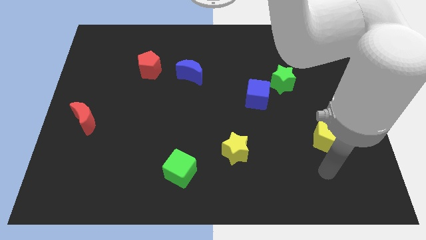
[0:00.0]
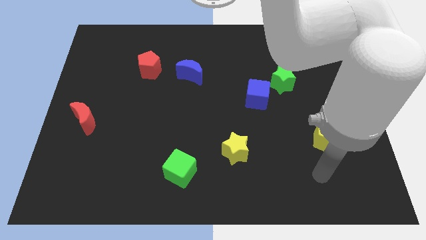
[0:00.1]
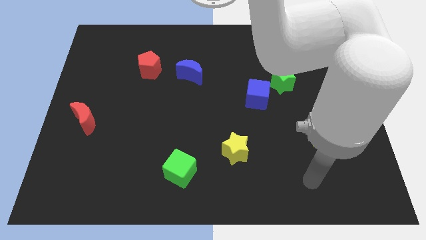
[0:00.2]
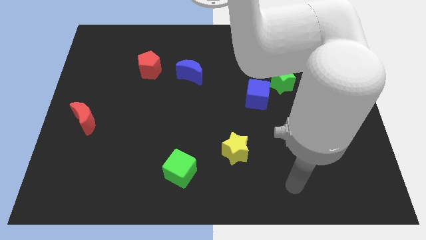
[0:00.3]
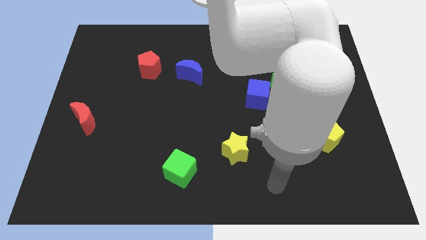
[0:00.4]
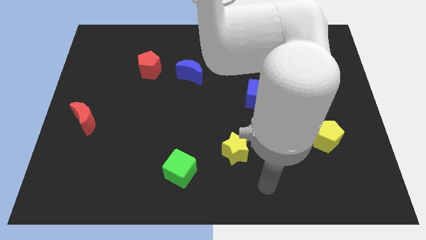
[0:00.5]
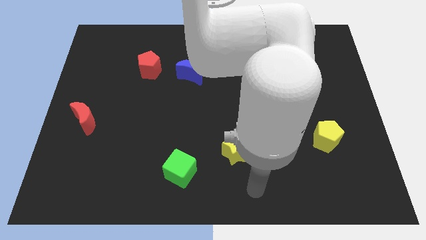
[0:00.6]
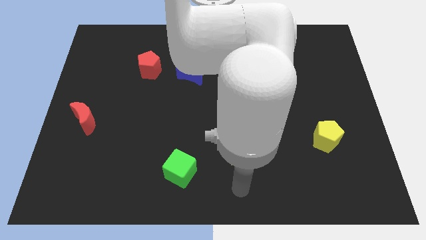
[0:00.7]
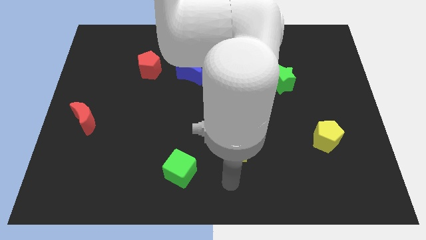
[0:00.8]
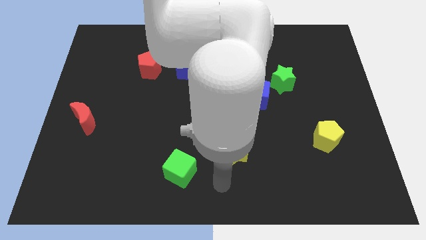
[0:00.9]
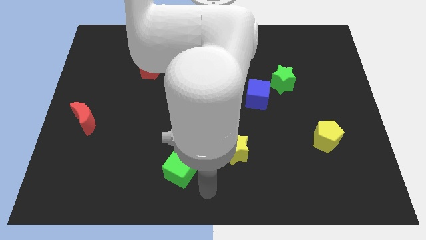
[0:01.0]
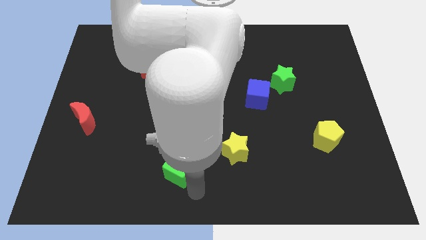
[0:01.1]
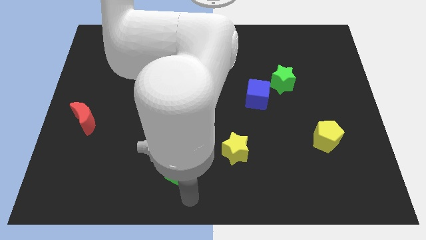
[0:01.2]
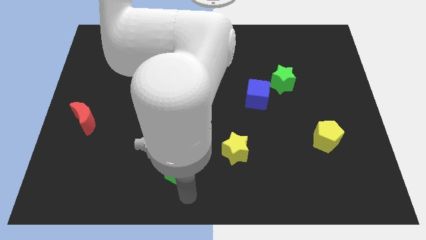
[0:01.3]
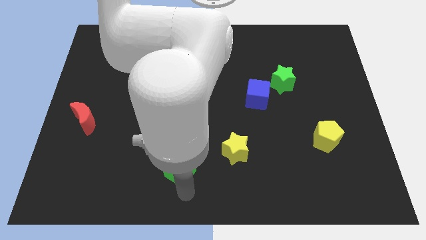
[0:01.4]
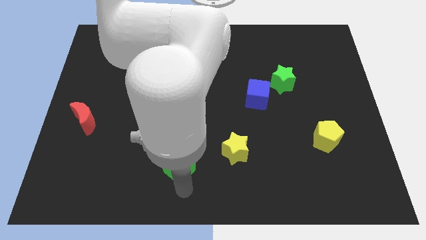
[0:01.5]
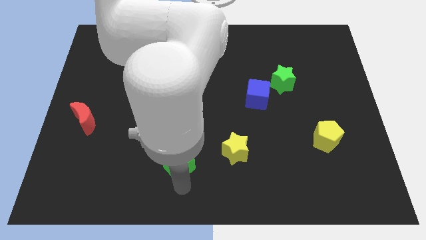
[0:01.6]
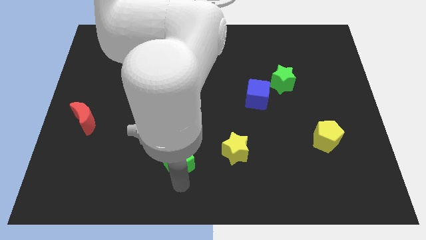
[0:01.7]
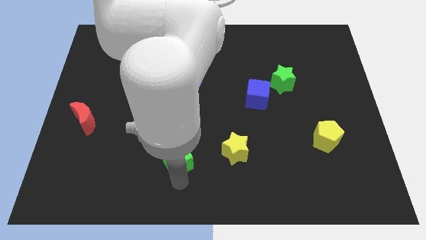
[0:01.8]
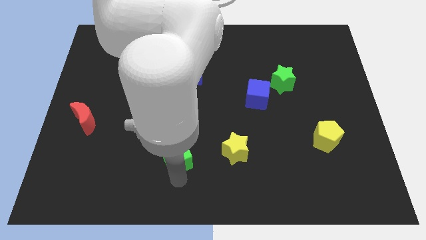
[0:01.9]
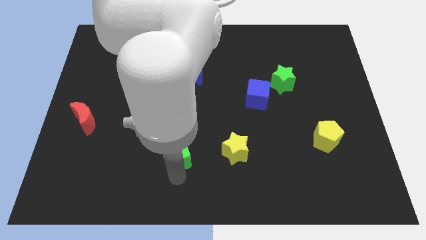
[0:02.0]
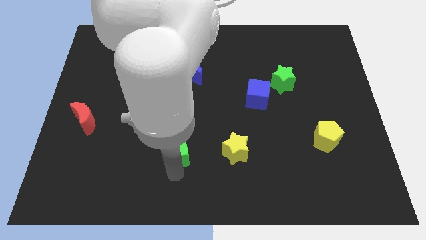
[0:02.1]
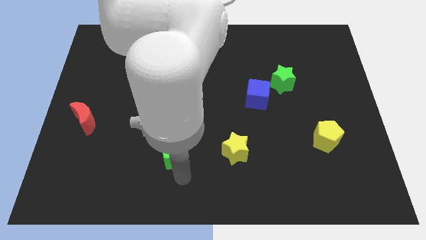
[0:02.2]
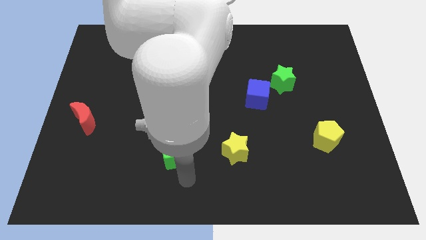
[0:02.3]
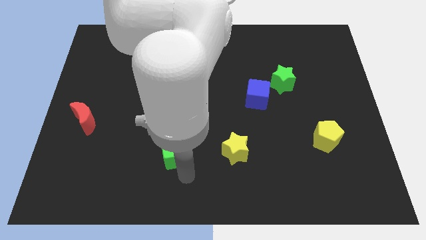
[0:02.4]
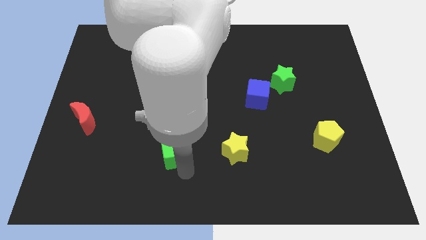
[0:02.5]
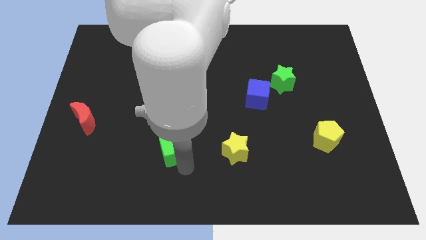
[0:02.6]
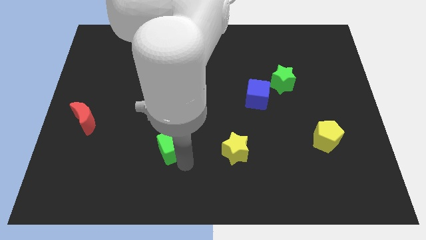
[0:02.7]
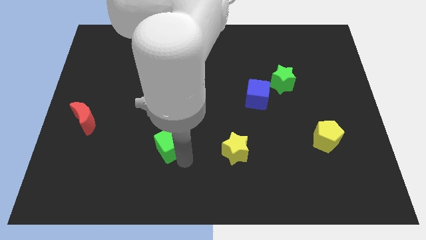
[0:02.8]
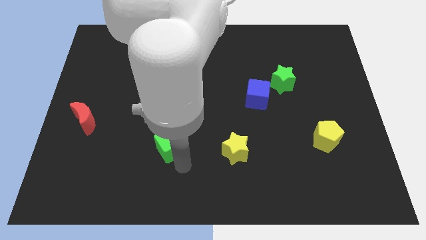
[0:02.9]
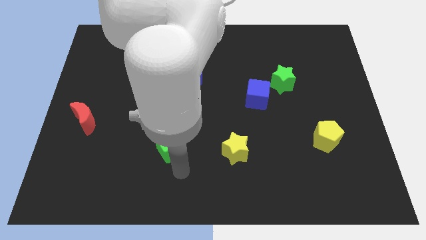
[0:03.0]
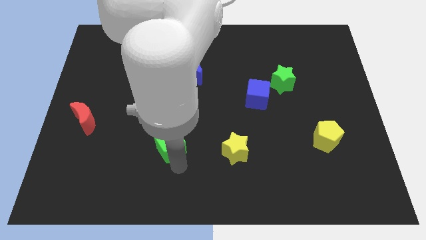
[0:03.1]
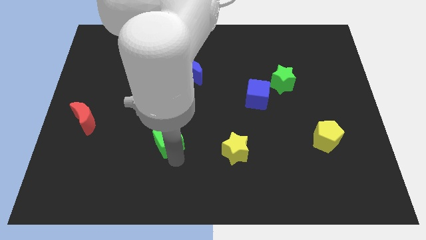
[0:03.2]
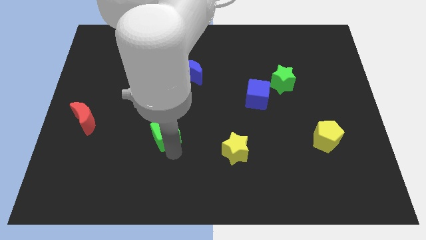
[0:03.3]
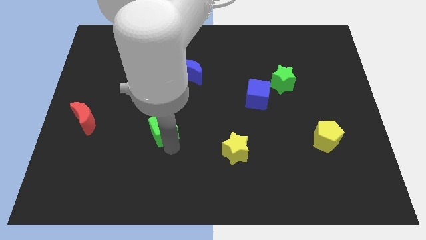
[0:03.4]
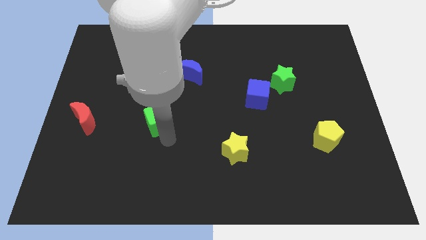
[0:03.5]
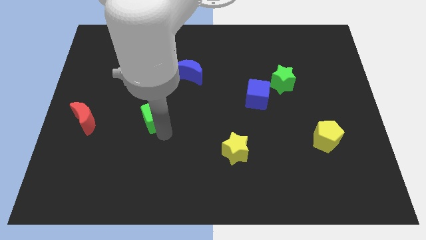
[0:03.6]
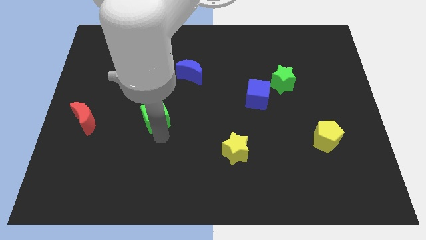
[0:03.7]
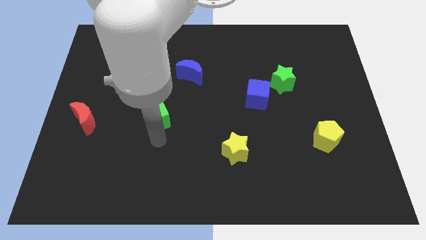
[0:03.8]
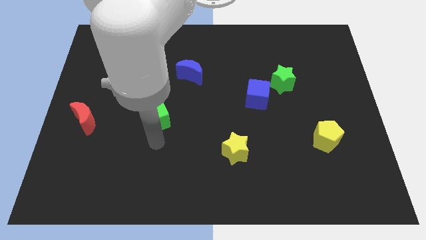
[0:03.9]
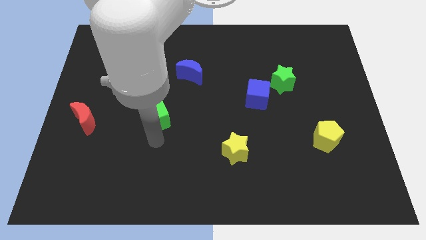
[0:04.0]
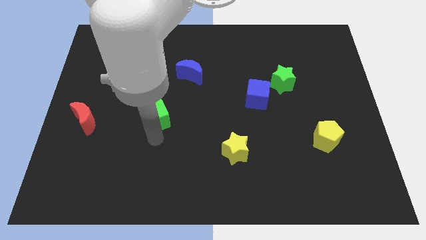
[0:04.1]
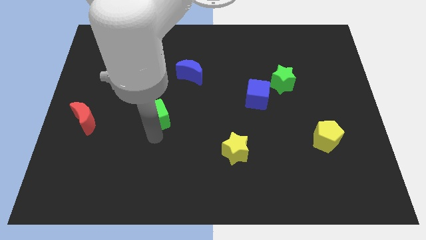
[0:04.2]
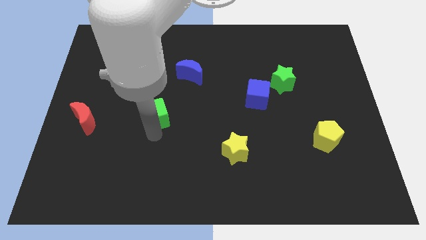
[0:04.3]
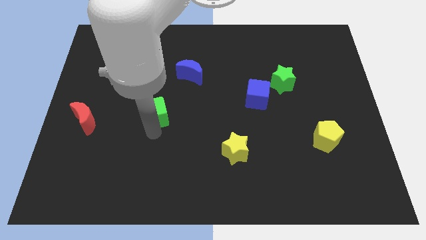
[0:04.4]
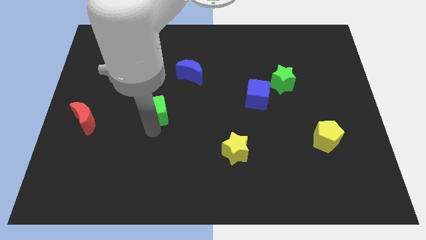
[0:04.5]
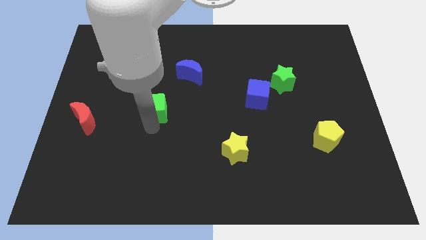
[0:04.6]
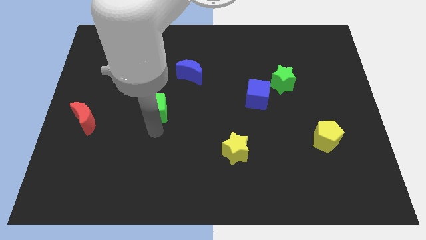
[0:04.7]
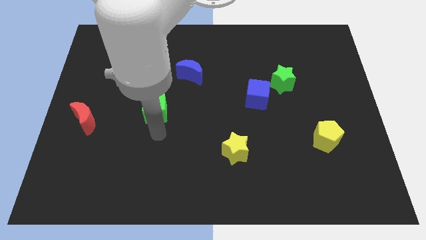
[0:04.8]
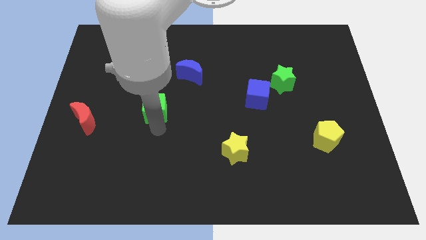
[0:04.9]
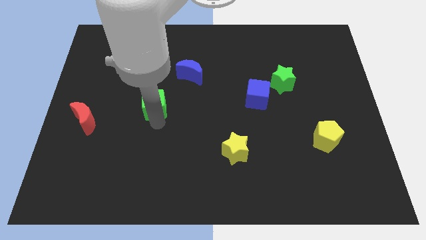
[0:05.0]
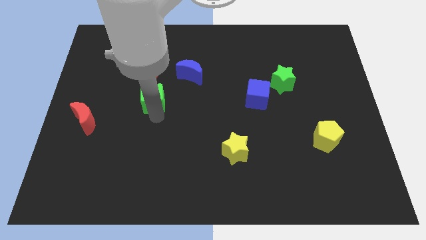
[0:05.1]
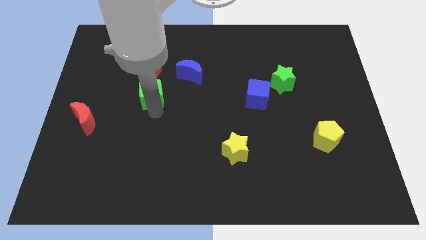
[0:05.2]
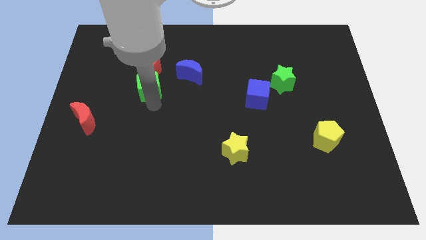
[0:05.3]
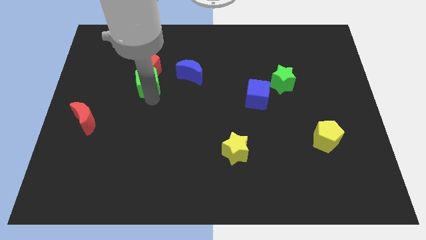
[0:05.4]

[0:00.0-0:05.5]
move the green cube next to the red pentagon

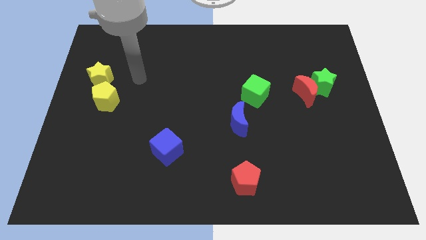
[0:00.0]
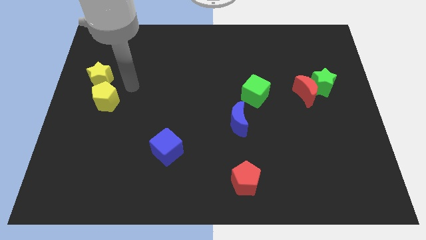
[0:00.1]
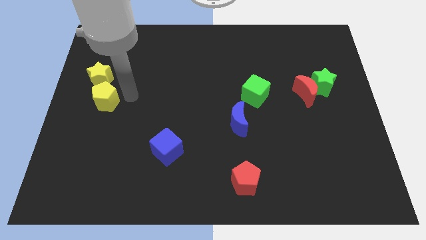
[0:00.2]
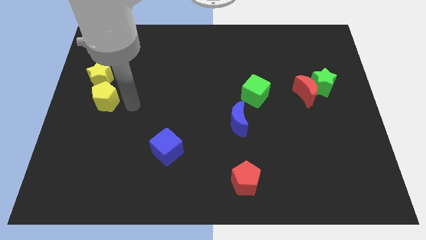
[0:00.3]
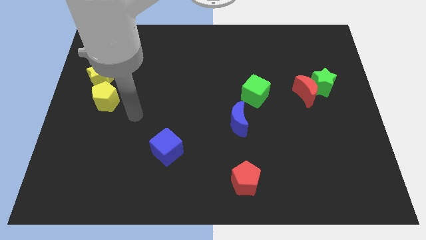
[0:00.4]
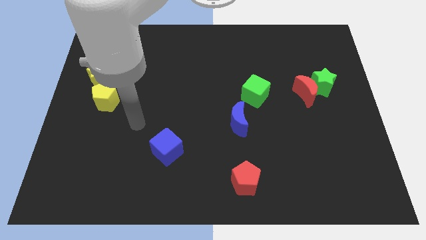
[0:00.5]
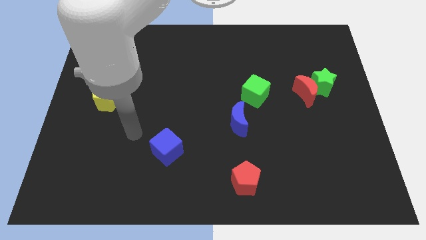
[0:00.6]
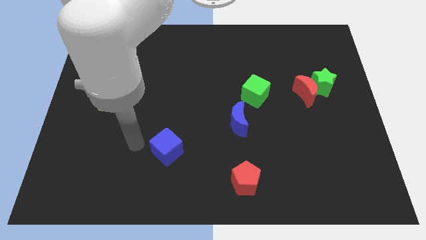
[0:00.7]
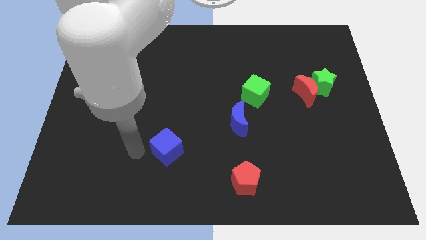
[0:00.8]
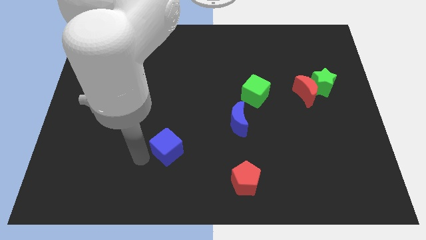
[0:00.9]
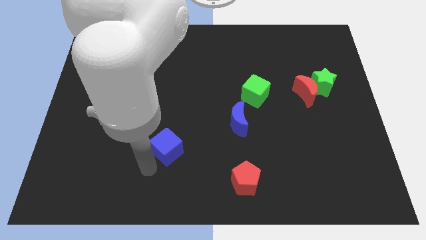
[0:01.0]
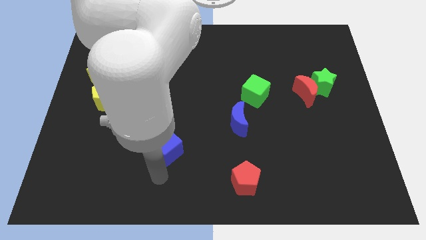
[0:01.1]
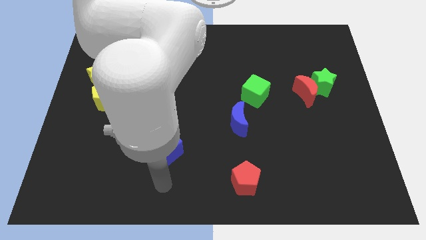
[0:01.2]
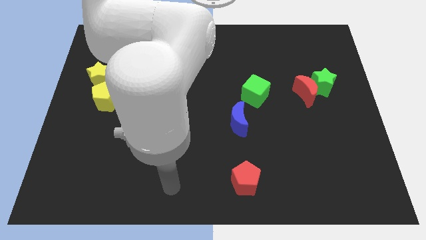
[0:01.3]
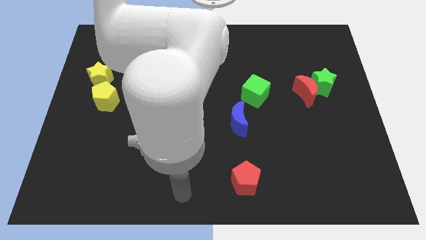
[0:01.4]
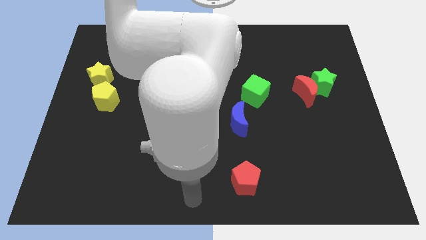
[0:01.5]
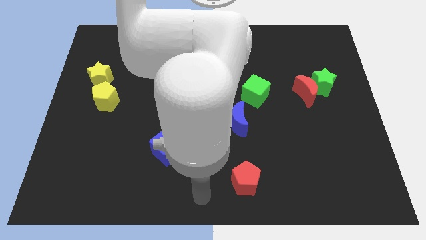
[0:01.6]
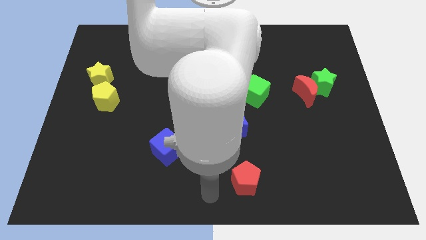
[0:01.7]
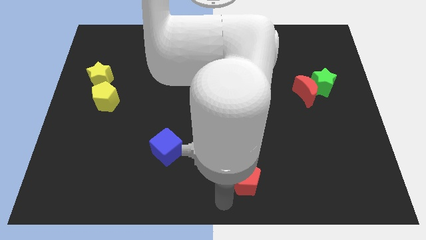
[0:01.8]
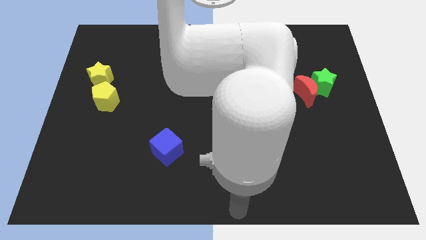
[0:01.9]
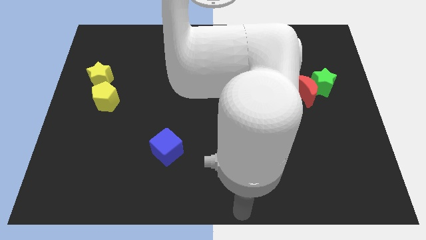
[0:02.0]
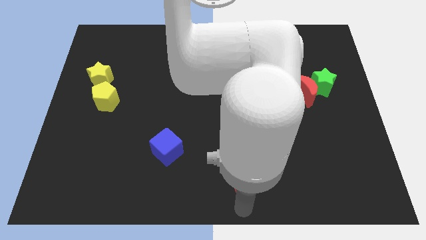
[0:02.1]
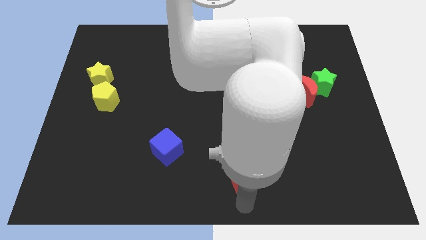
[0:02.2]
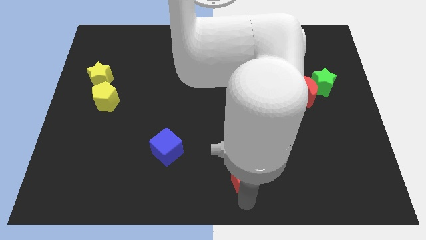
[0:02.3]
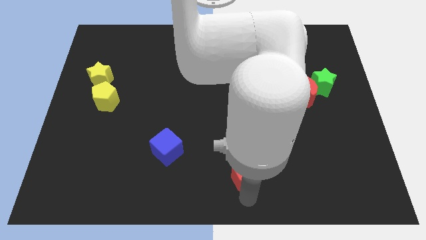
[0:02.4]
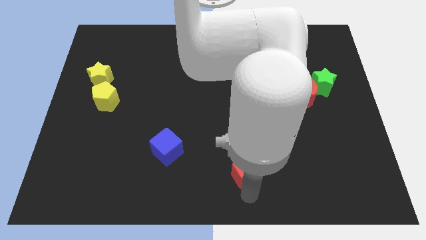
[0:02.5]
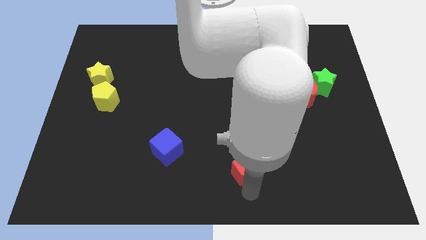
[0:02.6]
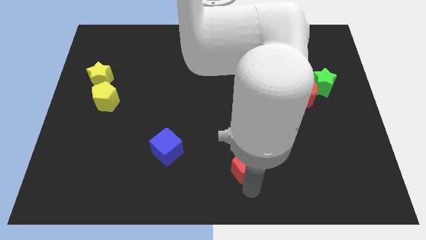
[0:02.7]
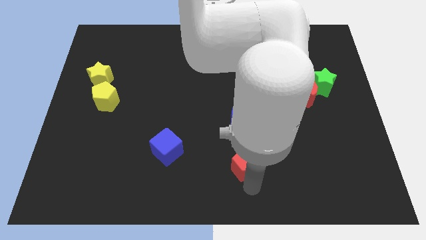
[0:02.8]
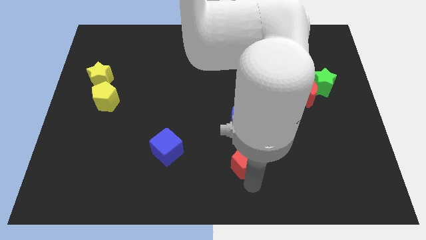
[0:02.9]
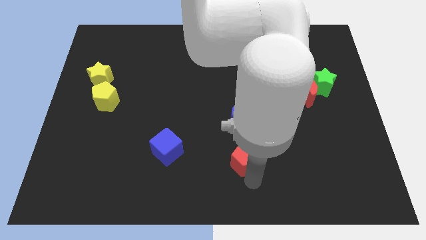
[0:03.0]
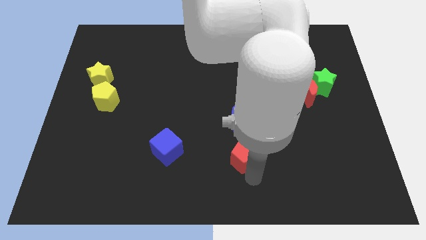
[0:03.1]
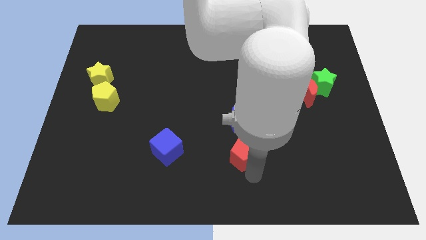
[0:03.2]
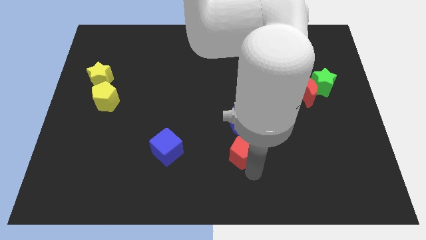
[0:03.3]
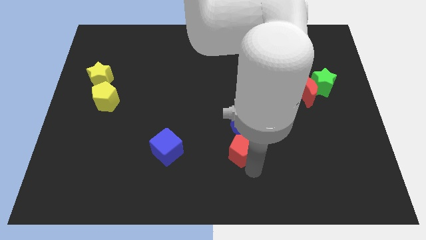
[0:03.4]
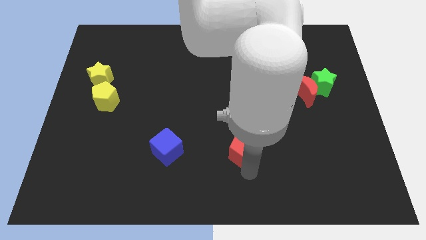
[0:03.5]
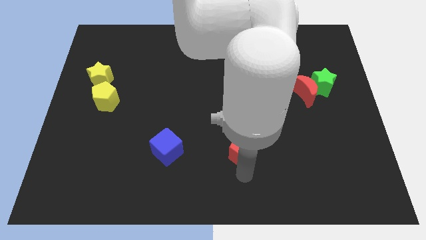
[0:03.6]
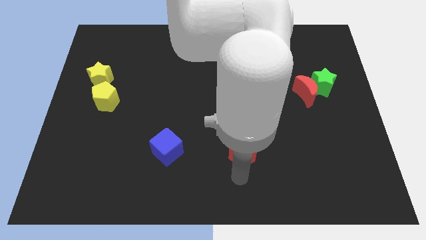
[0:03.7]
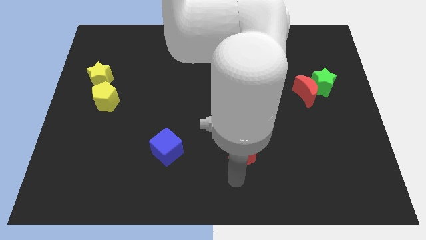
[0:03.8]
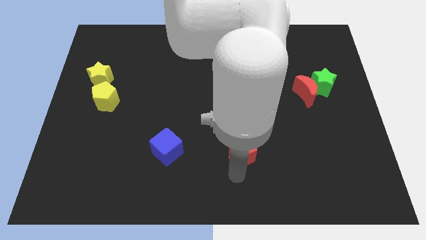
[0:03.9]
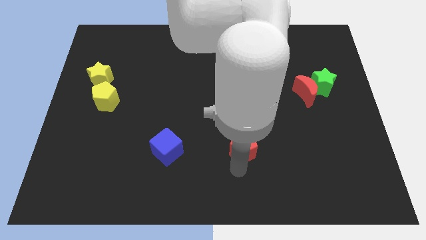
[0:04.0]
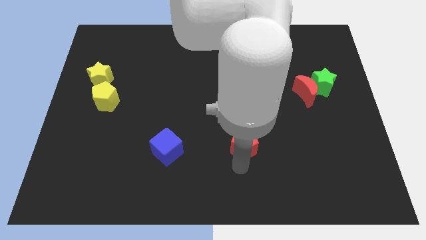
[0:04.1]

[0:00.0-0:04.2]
push the red pentagon to the blue moon
